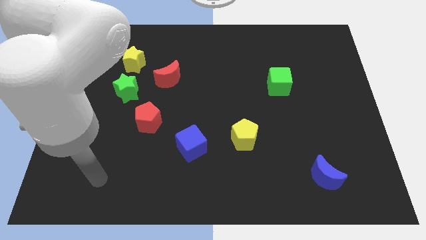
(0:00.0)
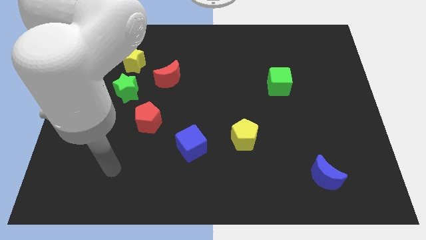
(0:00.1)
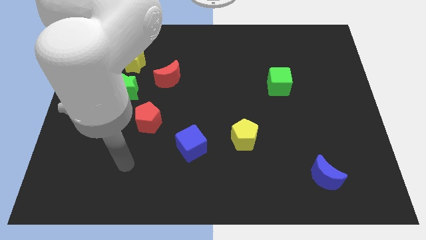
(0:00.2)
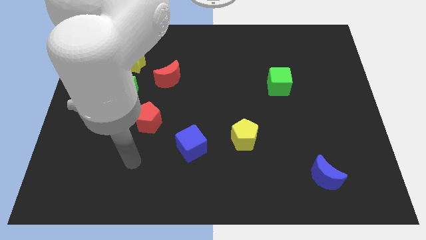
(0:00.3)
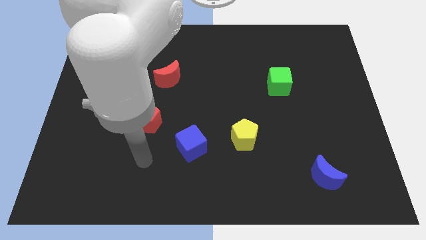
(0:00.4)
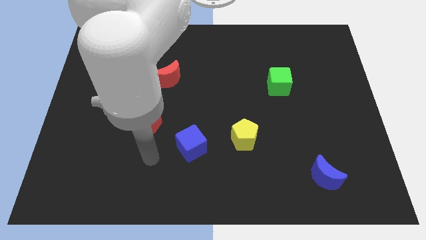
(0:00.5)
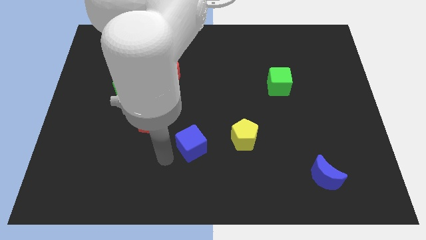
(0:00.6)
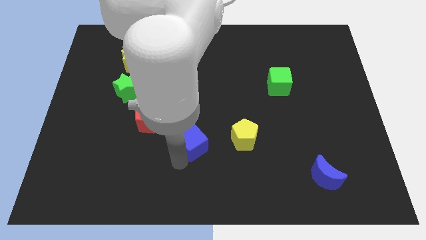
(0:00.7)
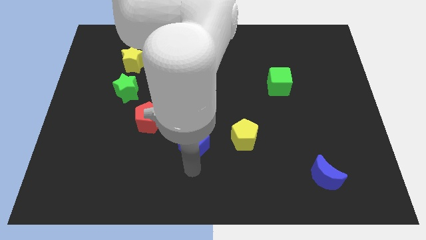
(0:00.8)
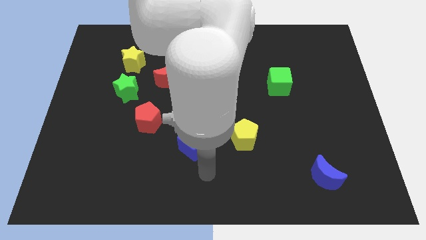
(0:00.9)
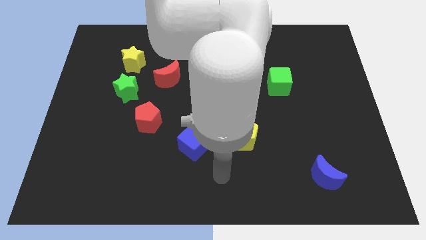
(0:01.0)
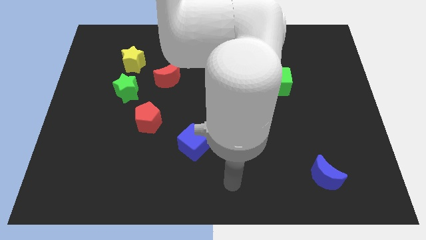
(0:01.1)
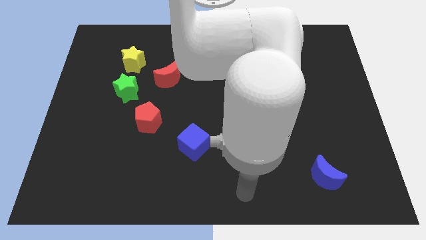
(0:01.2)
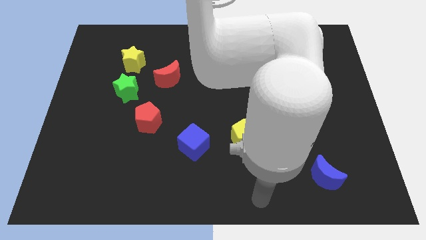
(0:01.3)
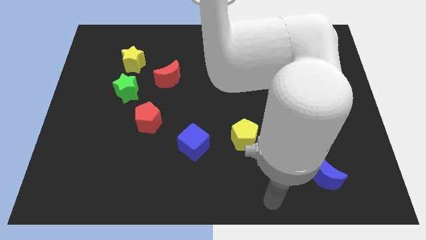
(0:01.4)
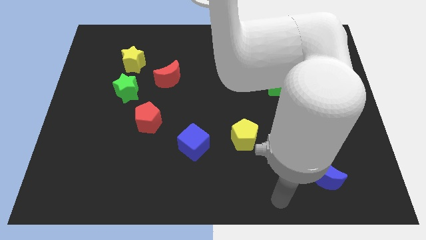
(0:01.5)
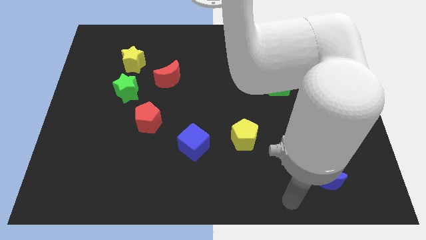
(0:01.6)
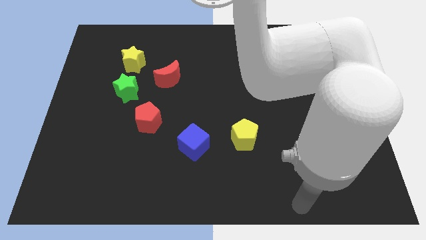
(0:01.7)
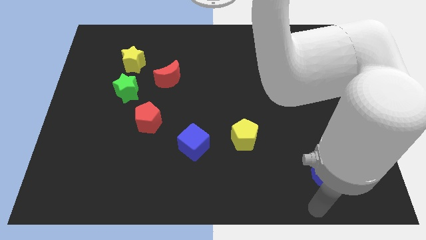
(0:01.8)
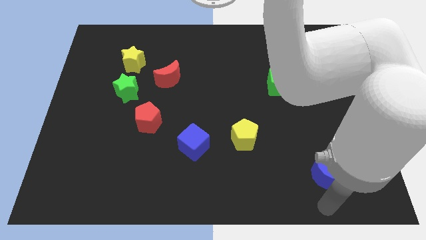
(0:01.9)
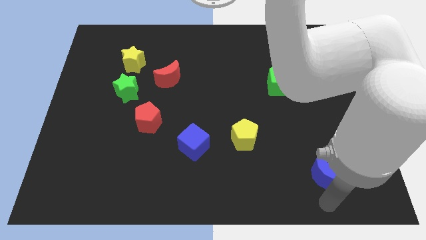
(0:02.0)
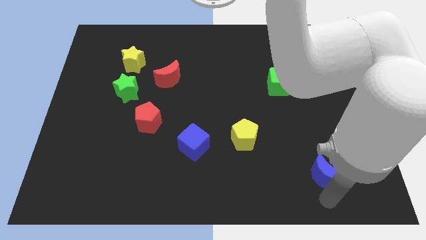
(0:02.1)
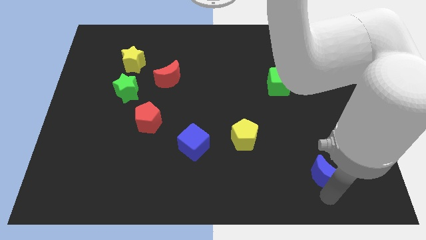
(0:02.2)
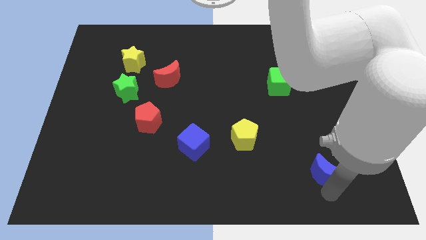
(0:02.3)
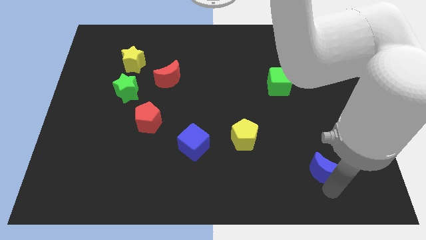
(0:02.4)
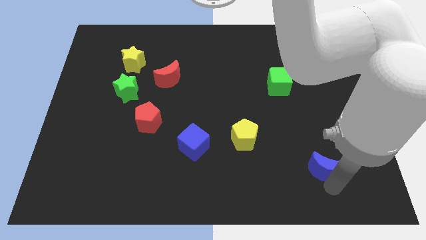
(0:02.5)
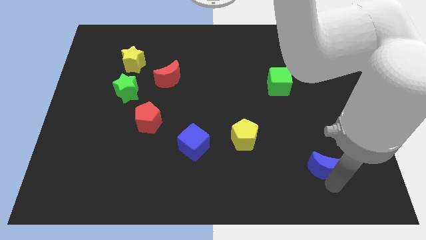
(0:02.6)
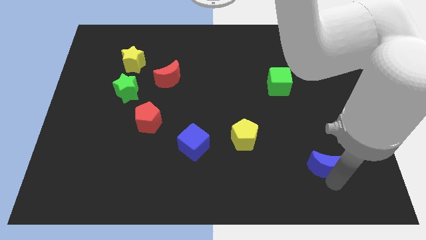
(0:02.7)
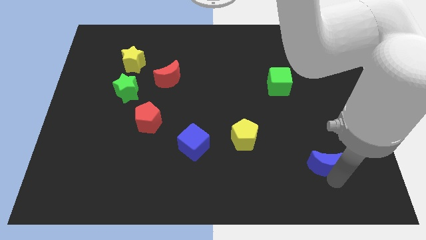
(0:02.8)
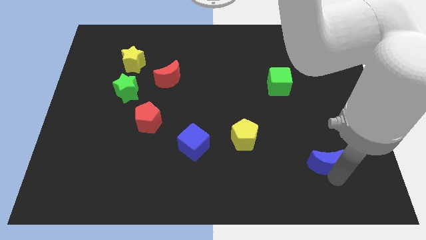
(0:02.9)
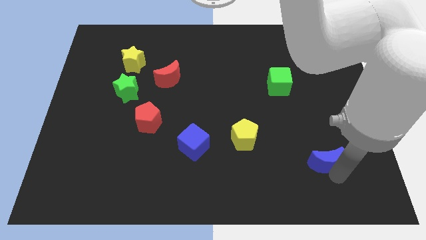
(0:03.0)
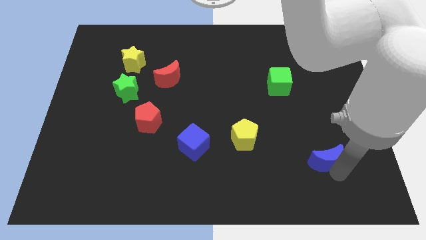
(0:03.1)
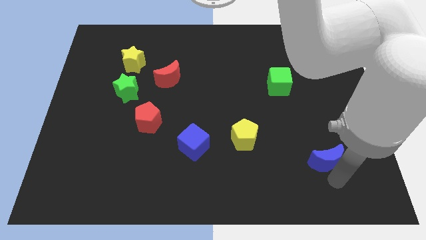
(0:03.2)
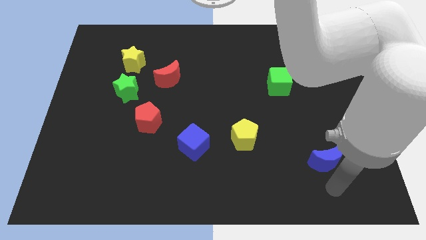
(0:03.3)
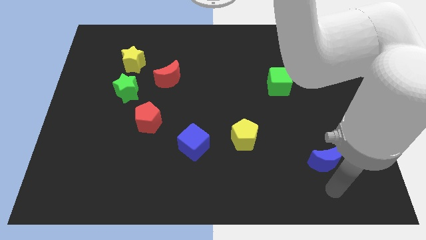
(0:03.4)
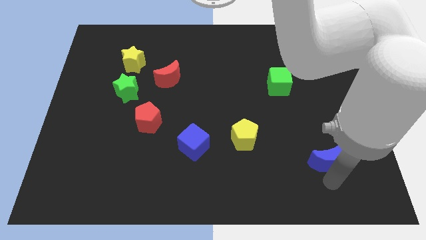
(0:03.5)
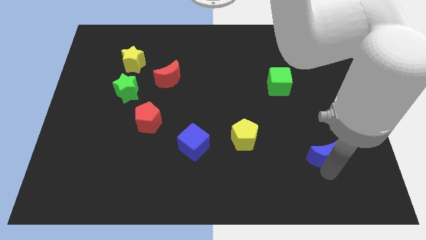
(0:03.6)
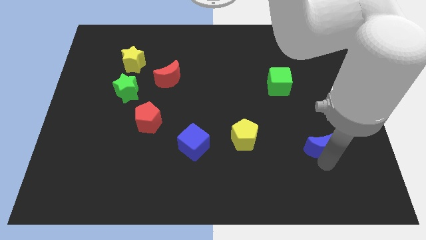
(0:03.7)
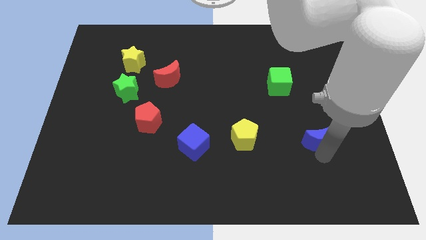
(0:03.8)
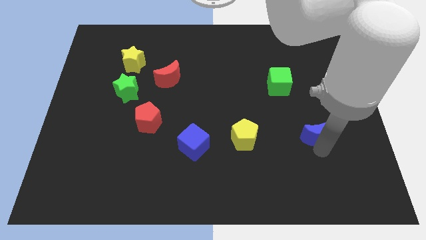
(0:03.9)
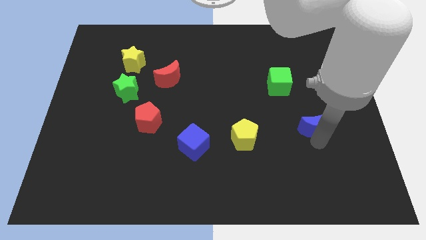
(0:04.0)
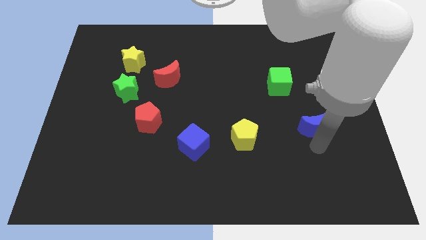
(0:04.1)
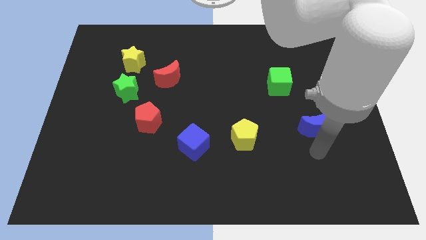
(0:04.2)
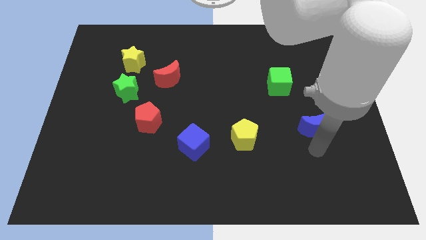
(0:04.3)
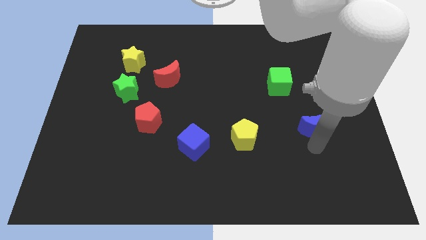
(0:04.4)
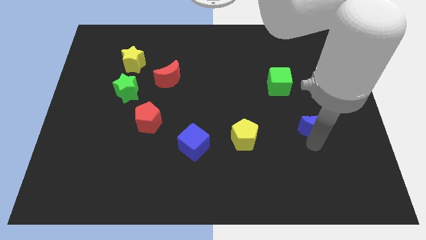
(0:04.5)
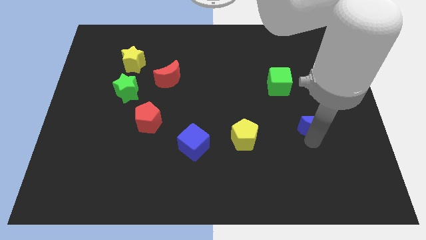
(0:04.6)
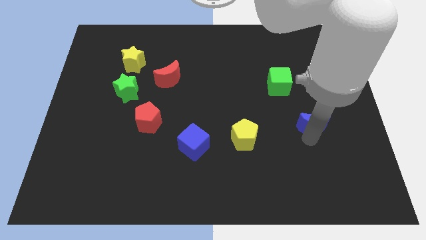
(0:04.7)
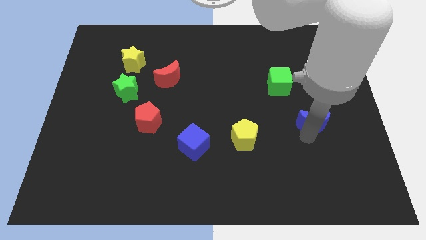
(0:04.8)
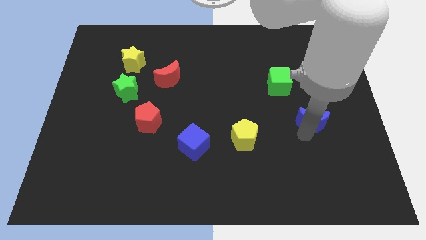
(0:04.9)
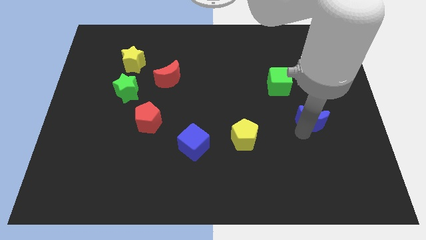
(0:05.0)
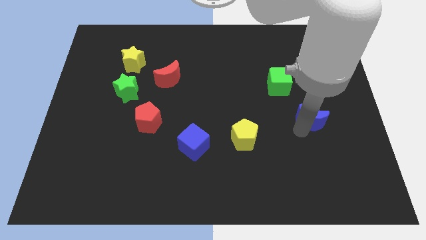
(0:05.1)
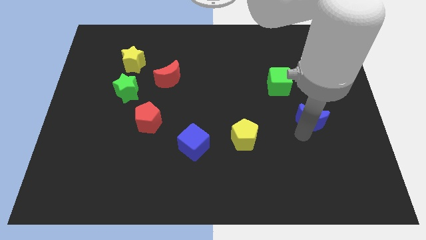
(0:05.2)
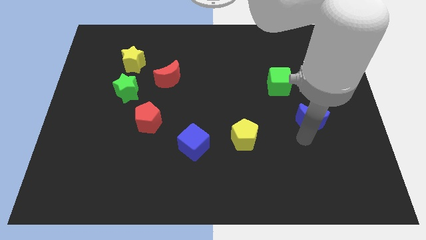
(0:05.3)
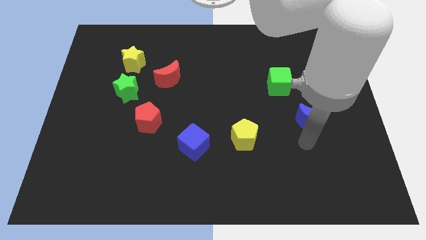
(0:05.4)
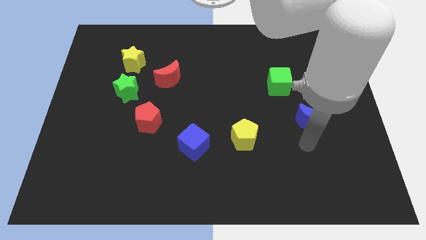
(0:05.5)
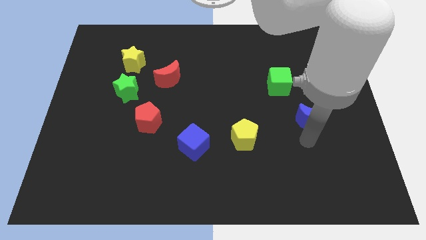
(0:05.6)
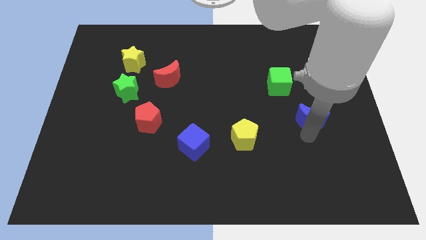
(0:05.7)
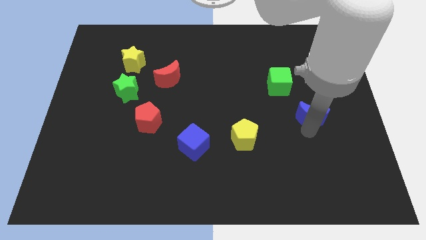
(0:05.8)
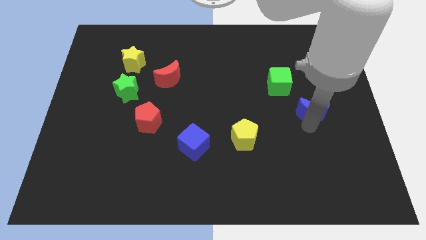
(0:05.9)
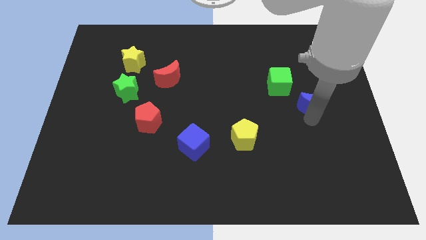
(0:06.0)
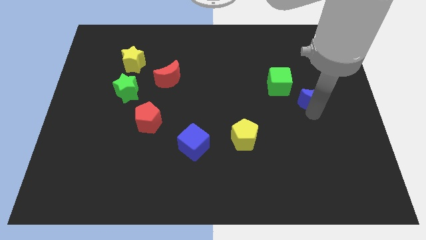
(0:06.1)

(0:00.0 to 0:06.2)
push the blue moon upwards

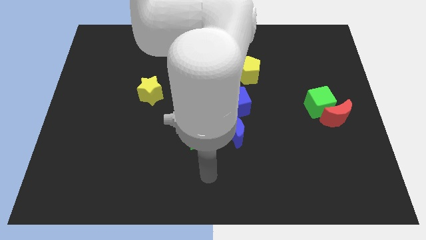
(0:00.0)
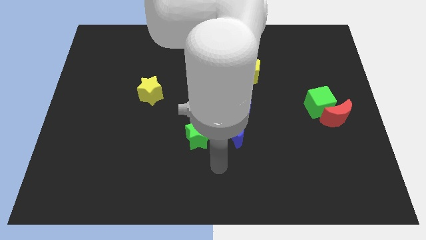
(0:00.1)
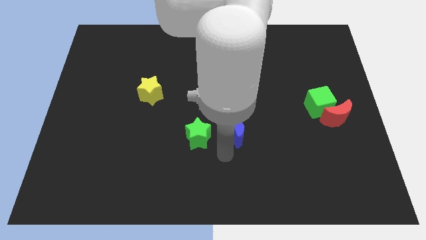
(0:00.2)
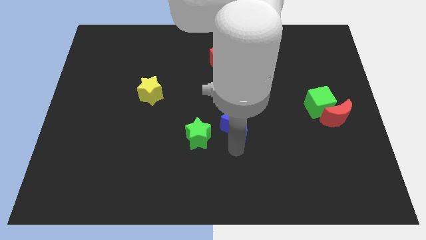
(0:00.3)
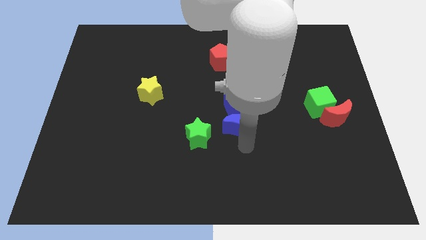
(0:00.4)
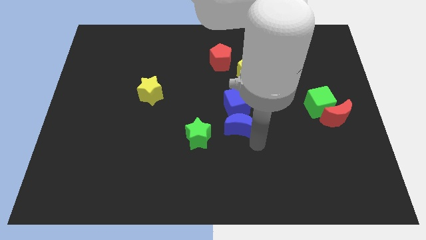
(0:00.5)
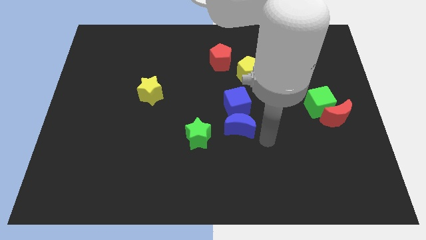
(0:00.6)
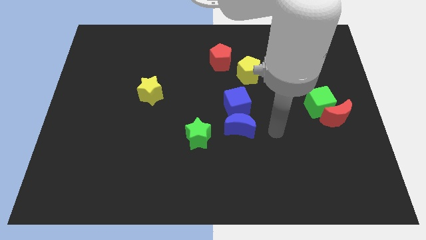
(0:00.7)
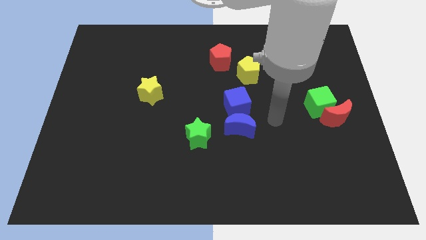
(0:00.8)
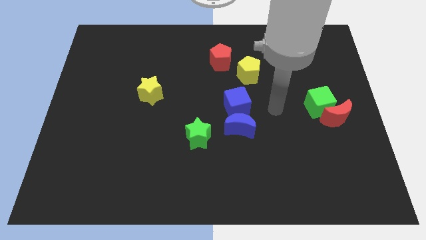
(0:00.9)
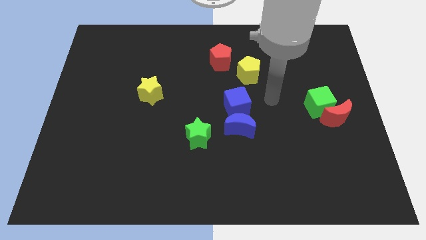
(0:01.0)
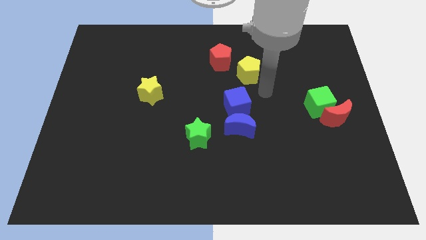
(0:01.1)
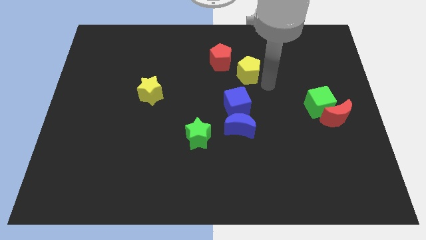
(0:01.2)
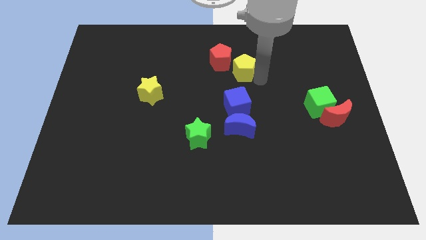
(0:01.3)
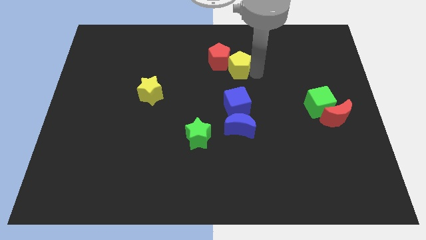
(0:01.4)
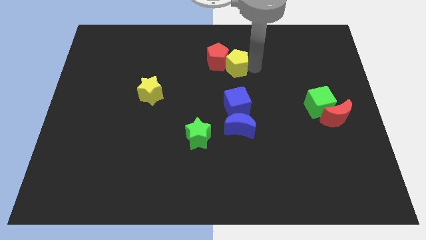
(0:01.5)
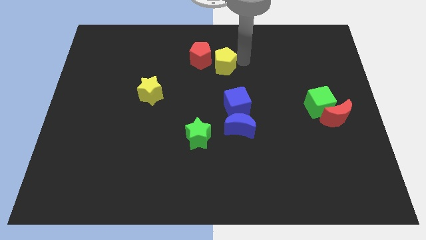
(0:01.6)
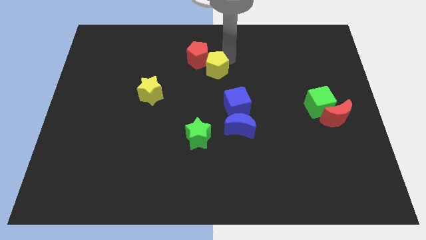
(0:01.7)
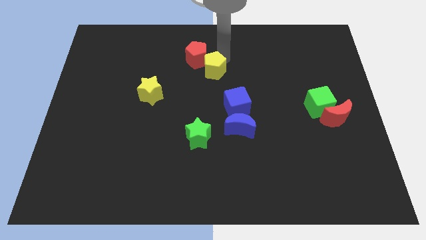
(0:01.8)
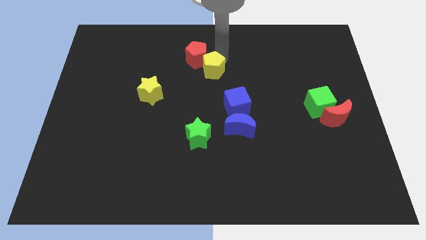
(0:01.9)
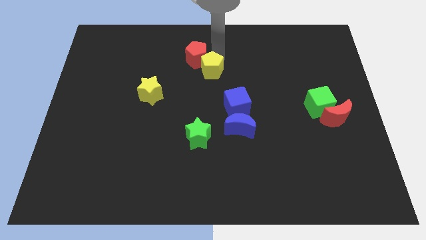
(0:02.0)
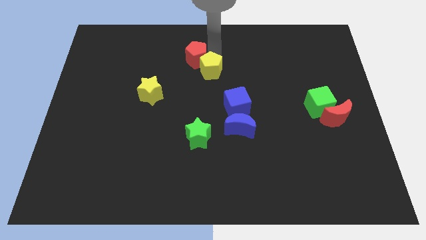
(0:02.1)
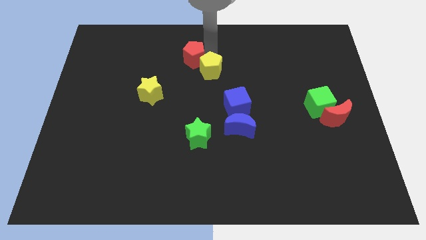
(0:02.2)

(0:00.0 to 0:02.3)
slightly slide the red pentagon to the left
